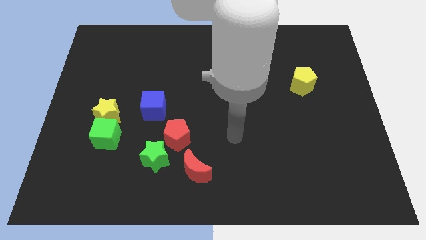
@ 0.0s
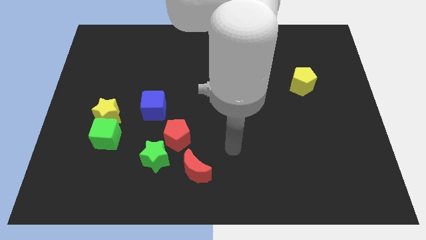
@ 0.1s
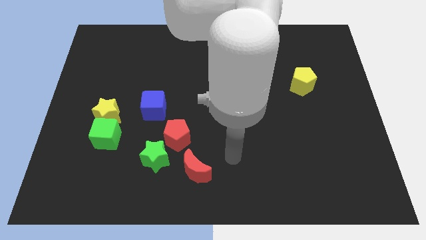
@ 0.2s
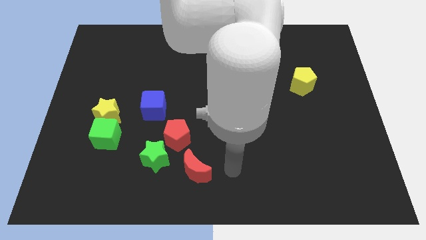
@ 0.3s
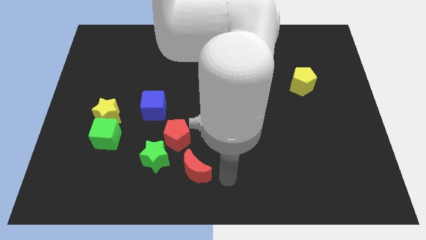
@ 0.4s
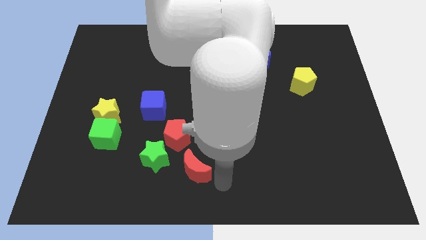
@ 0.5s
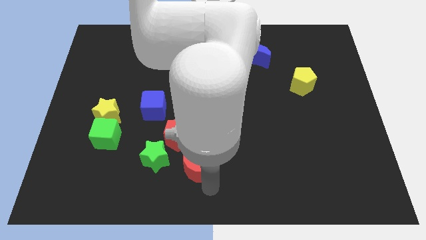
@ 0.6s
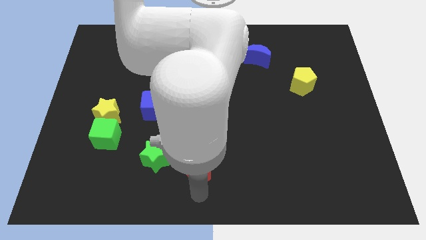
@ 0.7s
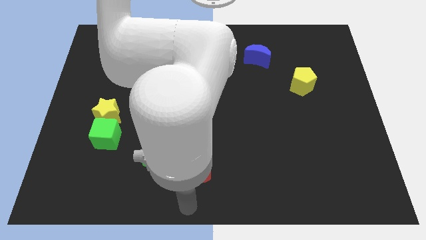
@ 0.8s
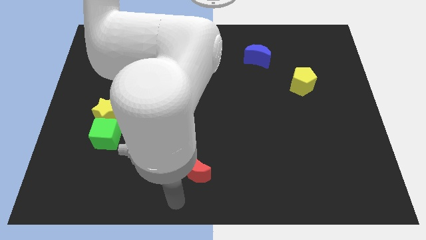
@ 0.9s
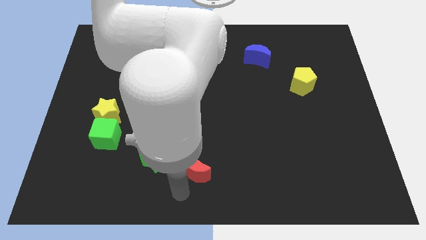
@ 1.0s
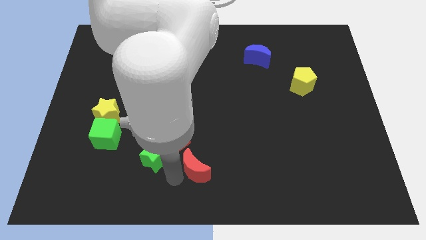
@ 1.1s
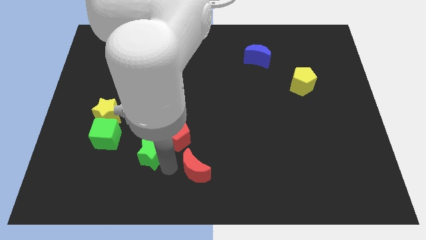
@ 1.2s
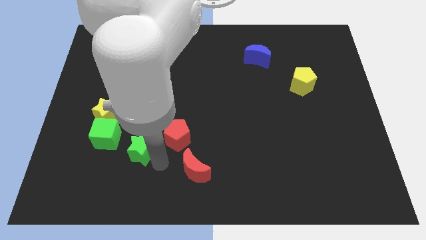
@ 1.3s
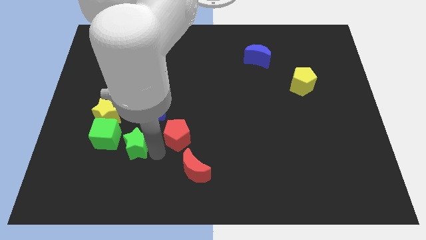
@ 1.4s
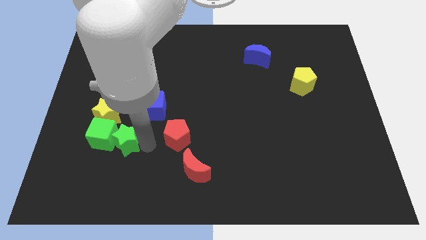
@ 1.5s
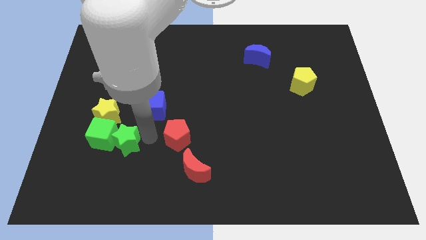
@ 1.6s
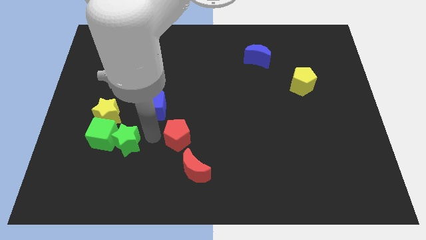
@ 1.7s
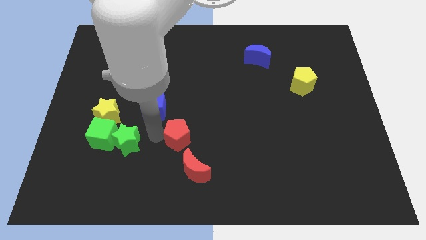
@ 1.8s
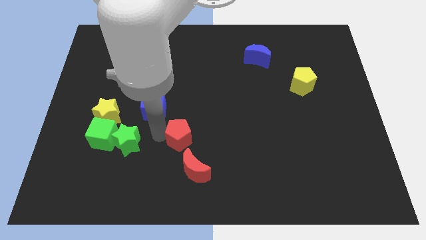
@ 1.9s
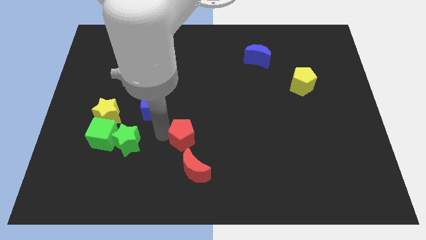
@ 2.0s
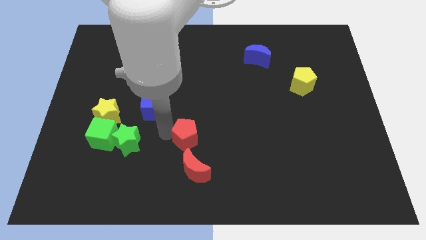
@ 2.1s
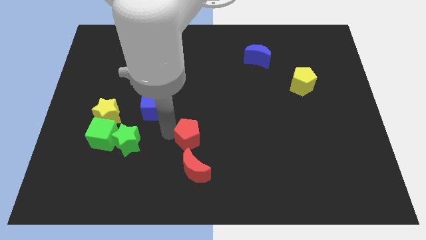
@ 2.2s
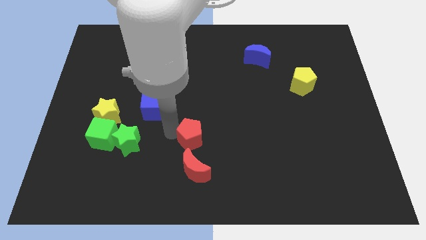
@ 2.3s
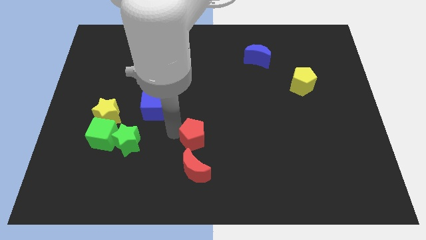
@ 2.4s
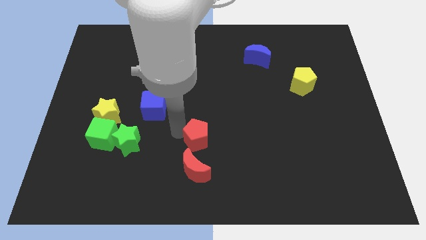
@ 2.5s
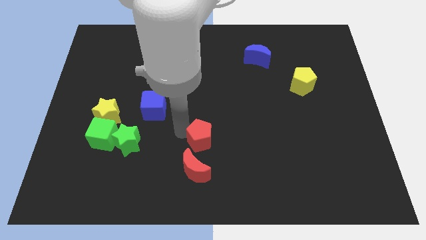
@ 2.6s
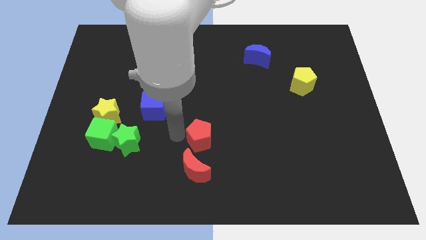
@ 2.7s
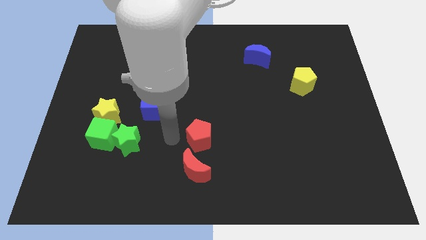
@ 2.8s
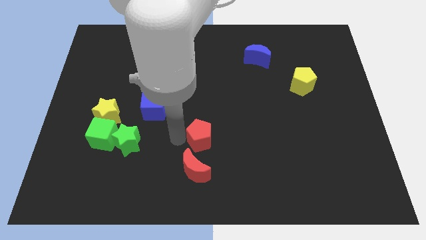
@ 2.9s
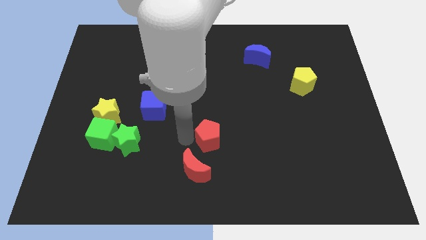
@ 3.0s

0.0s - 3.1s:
slide the red pentagon a bit to the right

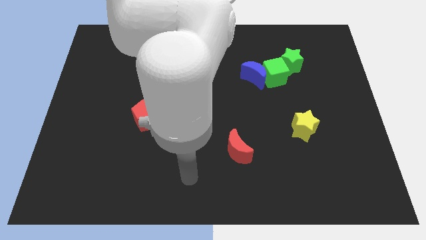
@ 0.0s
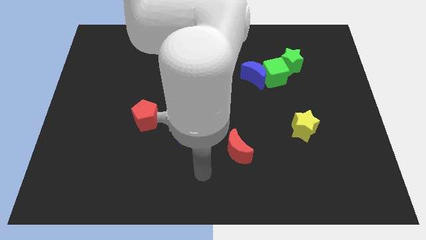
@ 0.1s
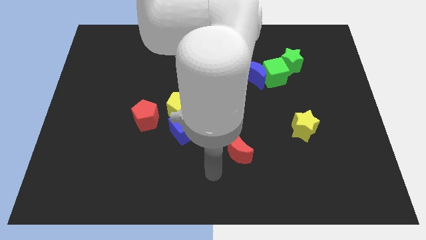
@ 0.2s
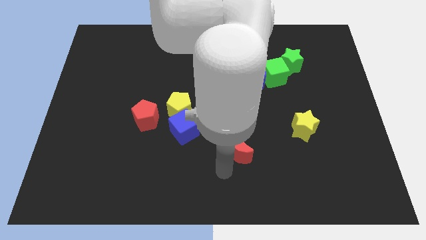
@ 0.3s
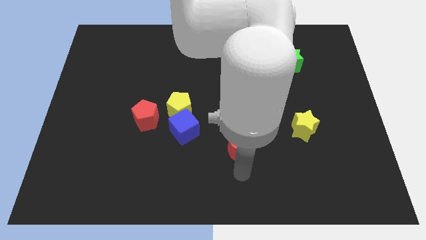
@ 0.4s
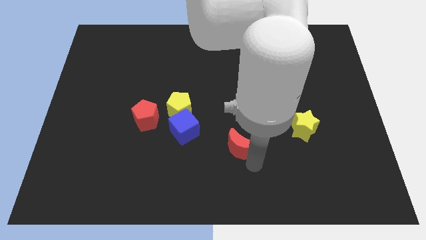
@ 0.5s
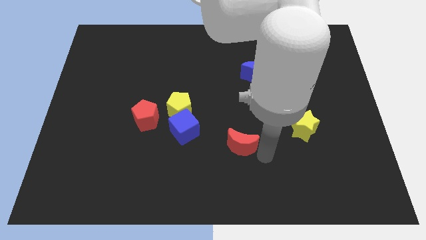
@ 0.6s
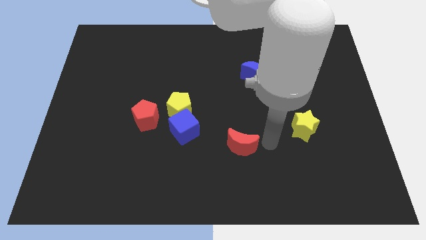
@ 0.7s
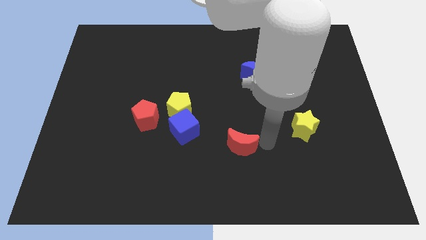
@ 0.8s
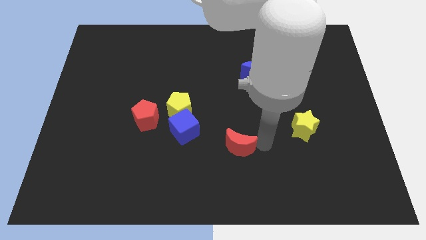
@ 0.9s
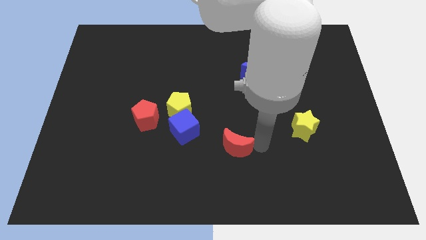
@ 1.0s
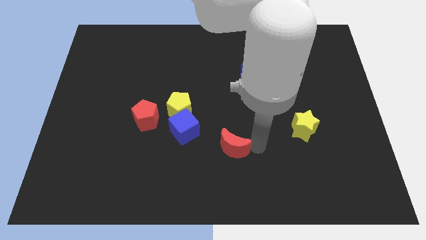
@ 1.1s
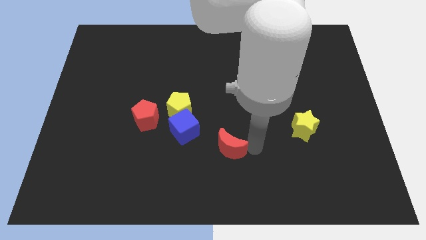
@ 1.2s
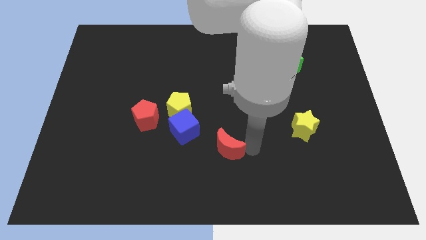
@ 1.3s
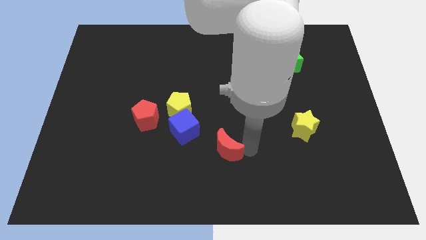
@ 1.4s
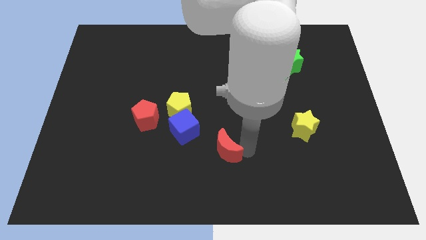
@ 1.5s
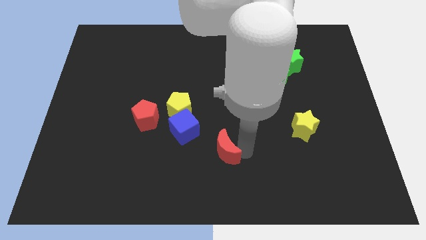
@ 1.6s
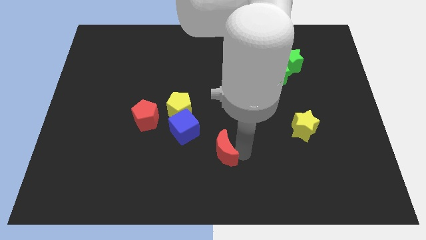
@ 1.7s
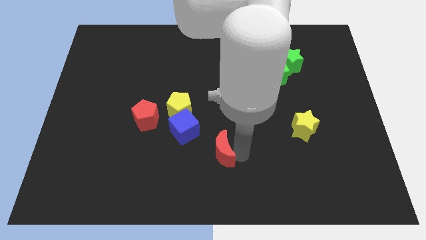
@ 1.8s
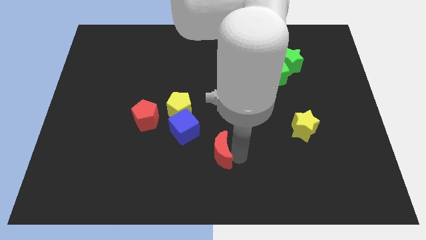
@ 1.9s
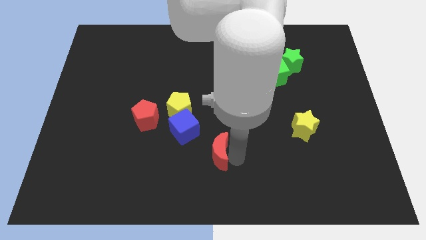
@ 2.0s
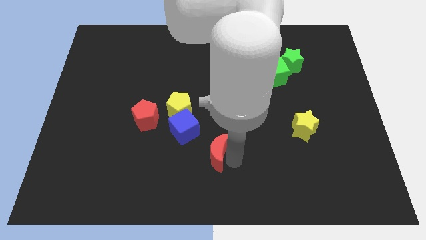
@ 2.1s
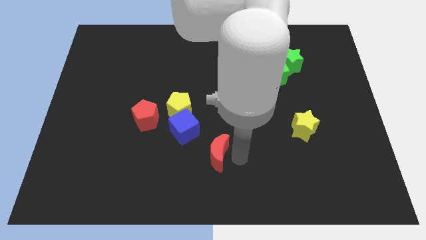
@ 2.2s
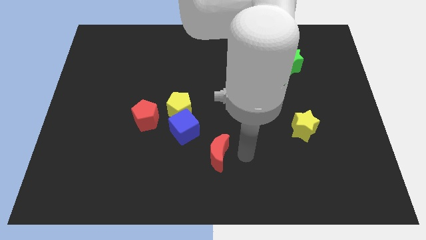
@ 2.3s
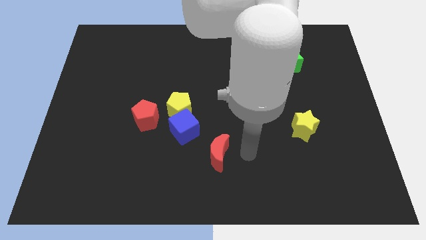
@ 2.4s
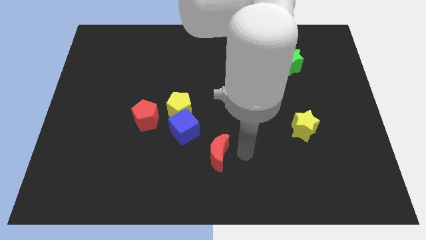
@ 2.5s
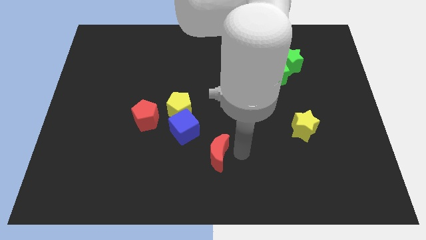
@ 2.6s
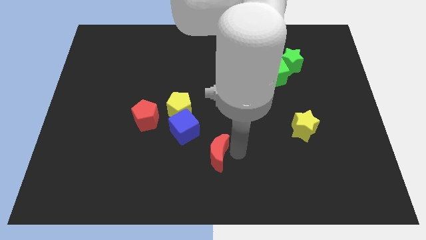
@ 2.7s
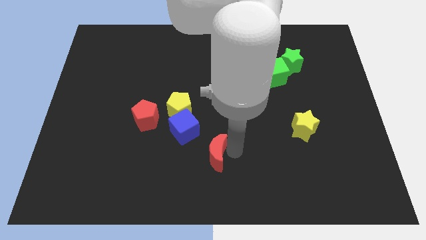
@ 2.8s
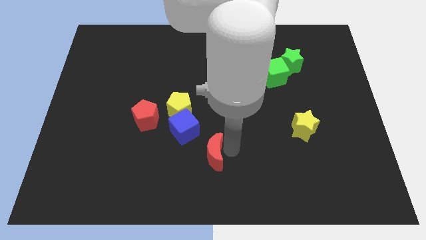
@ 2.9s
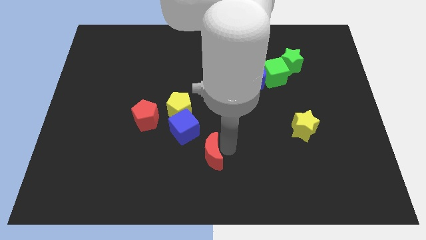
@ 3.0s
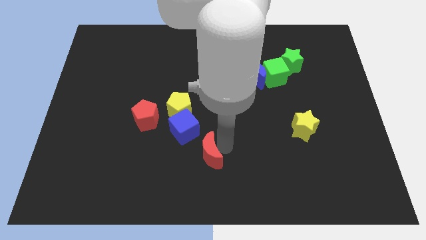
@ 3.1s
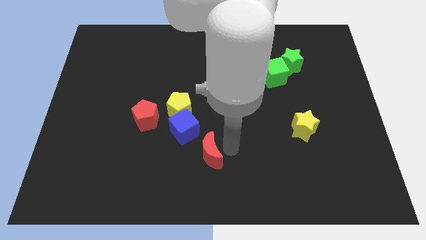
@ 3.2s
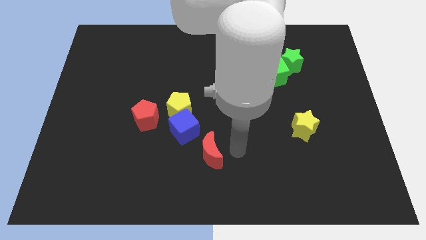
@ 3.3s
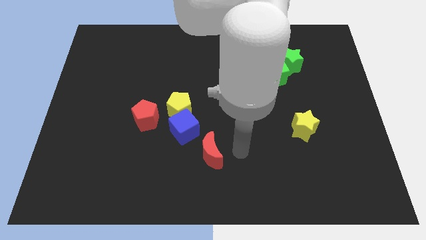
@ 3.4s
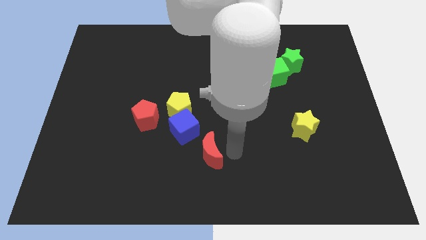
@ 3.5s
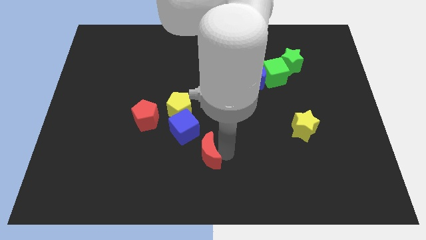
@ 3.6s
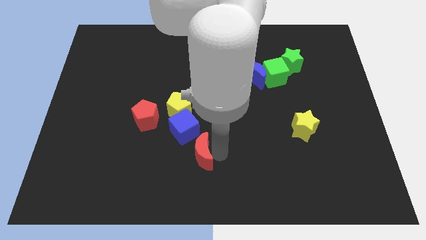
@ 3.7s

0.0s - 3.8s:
slide the red moon a little bit to the left

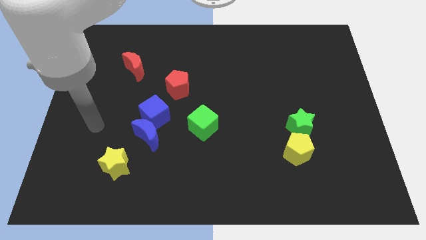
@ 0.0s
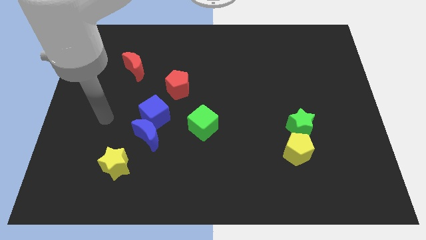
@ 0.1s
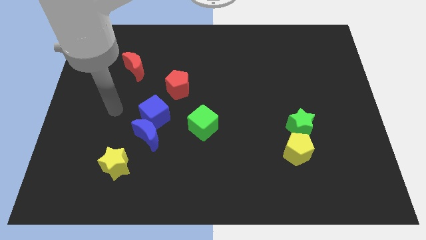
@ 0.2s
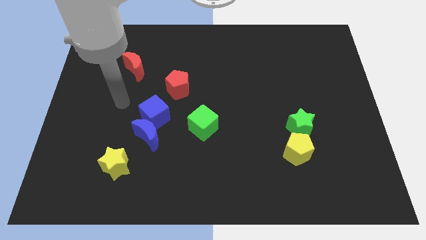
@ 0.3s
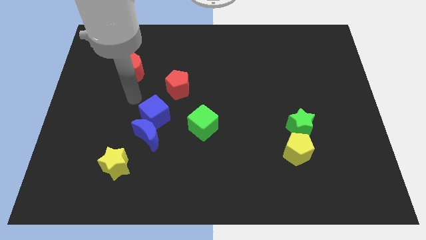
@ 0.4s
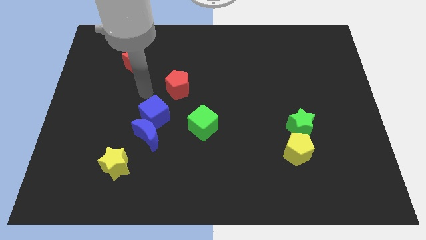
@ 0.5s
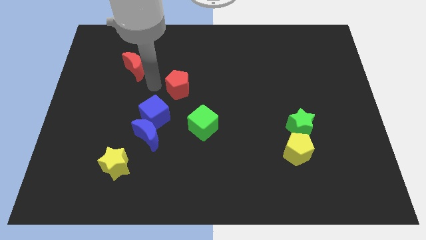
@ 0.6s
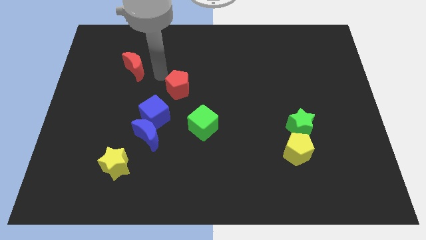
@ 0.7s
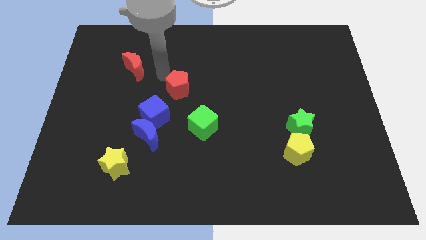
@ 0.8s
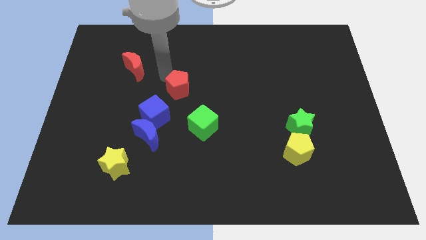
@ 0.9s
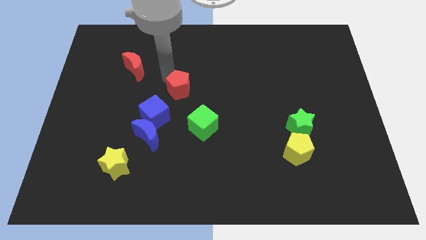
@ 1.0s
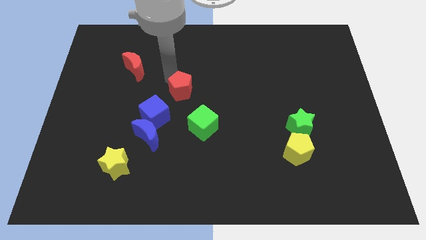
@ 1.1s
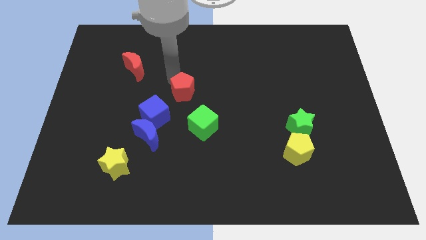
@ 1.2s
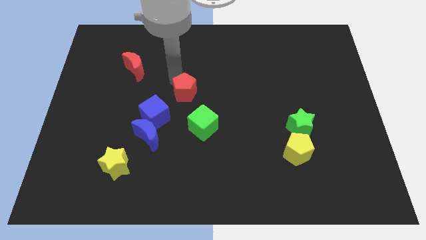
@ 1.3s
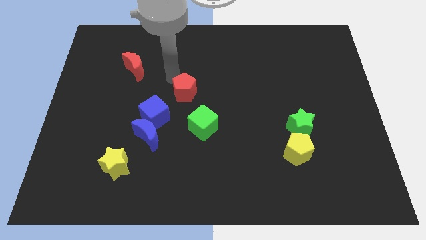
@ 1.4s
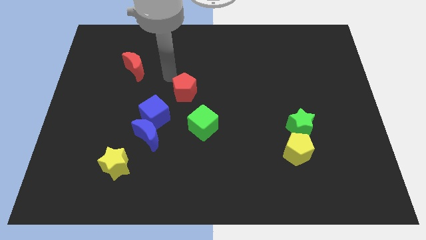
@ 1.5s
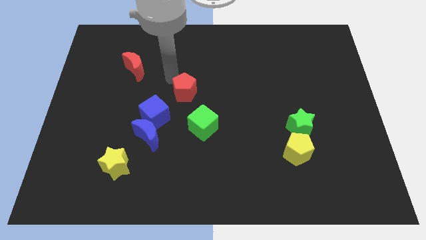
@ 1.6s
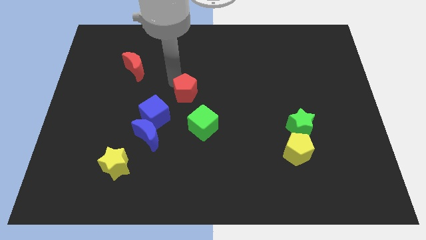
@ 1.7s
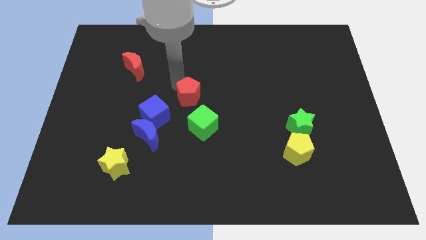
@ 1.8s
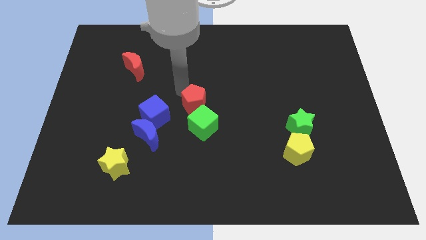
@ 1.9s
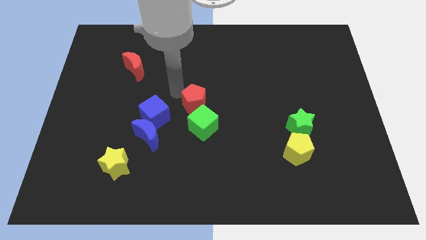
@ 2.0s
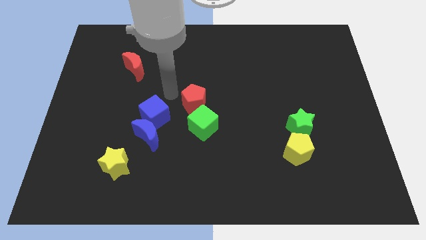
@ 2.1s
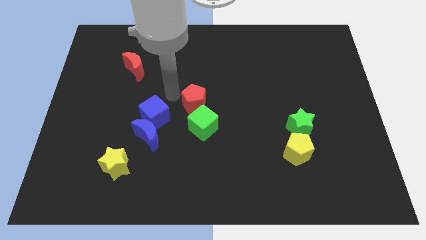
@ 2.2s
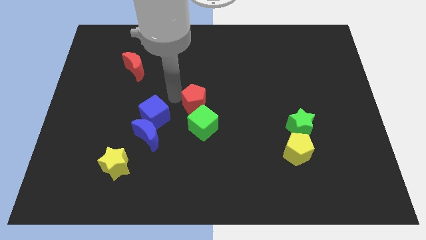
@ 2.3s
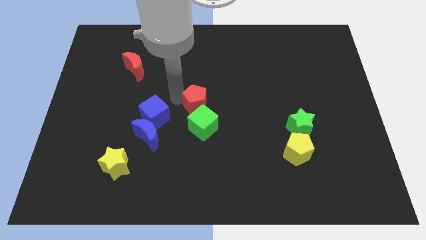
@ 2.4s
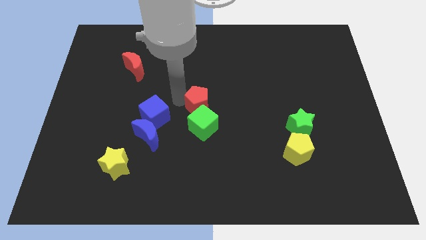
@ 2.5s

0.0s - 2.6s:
slide the red pentagon a bit downwards and then to the right
